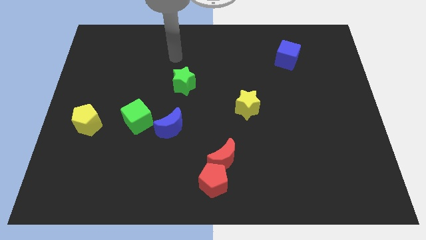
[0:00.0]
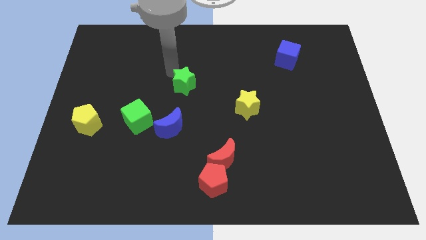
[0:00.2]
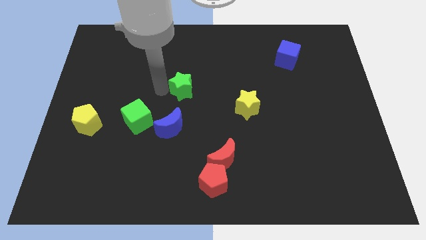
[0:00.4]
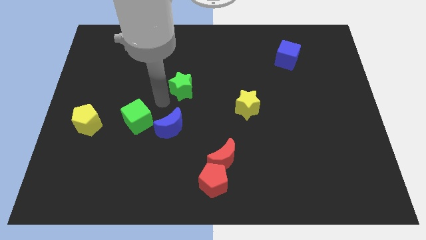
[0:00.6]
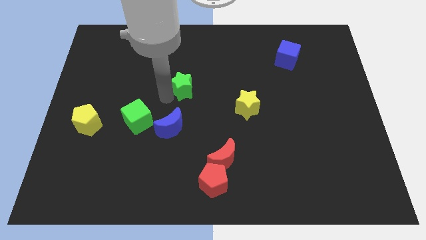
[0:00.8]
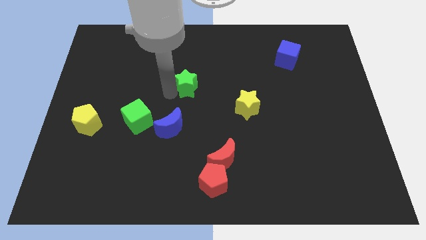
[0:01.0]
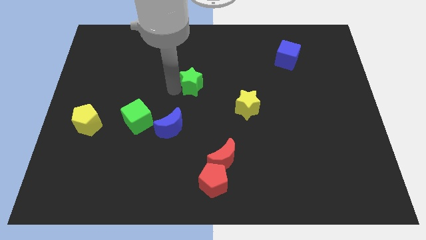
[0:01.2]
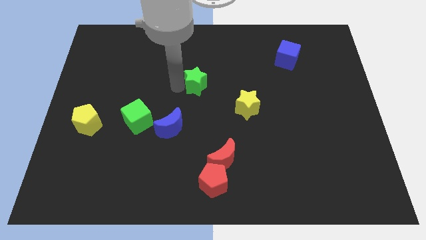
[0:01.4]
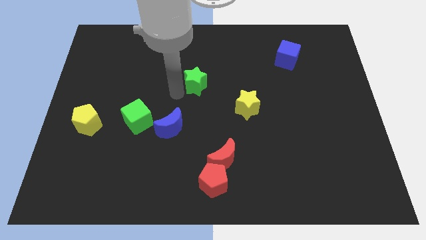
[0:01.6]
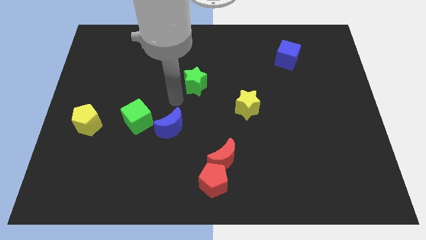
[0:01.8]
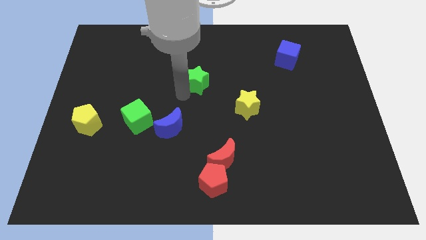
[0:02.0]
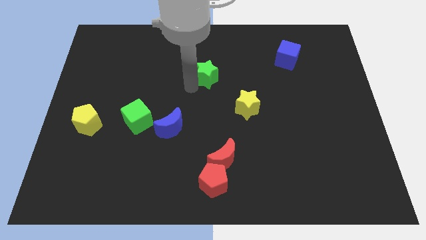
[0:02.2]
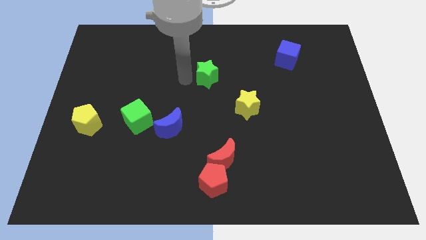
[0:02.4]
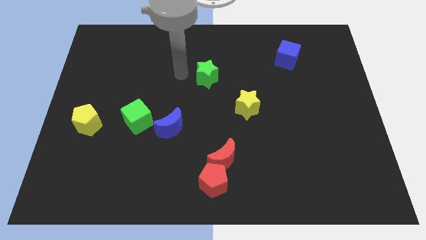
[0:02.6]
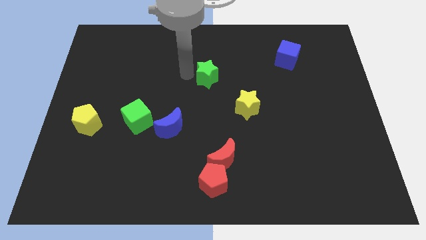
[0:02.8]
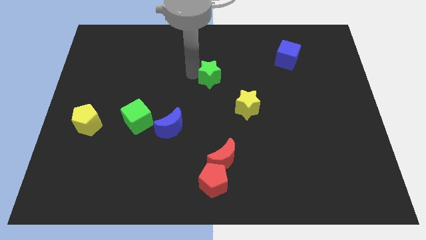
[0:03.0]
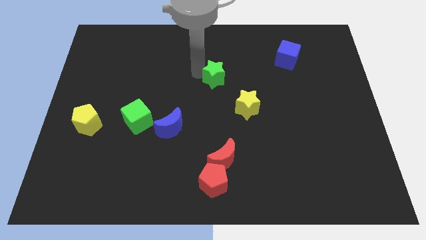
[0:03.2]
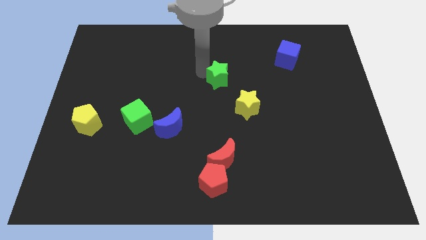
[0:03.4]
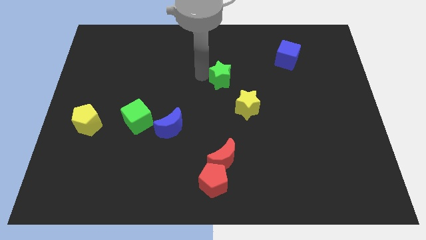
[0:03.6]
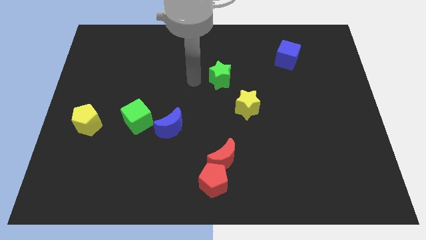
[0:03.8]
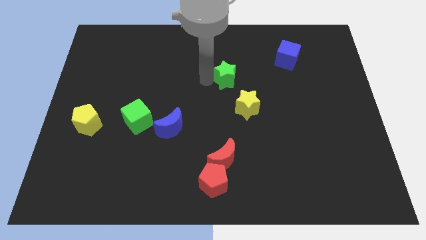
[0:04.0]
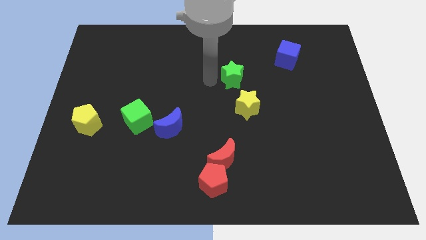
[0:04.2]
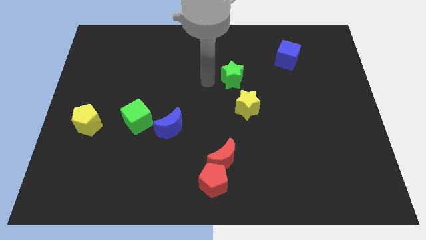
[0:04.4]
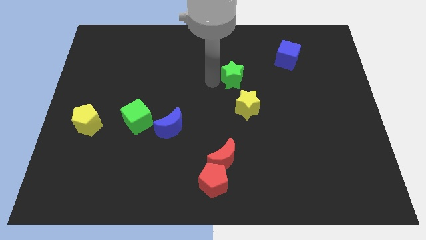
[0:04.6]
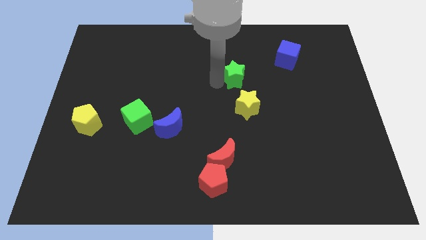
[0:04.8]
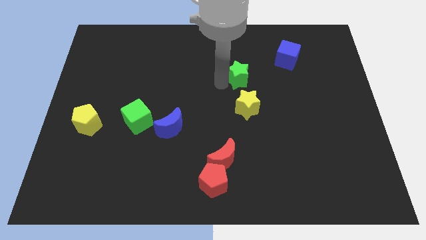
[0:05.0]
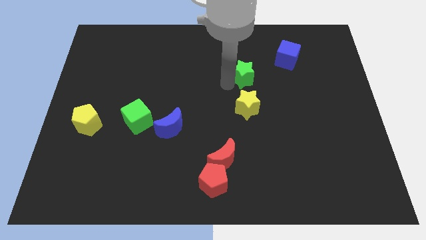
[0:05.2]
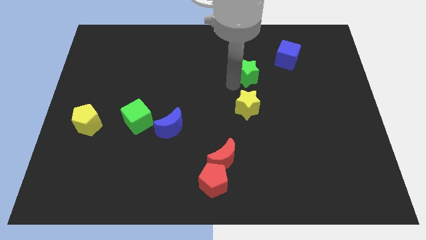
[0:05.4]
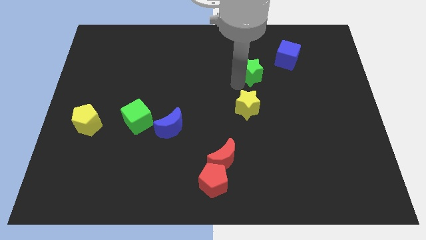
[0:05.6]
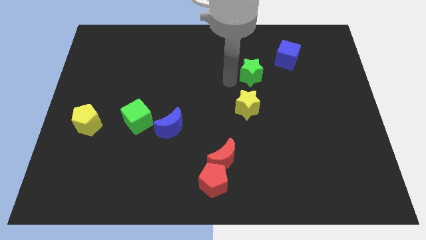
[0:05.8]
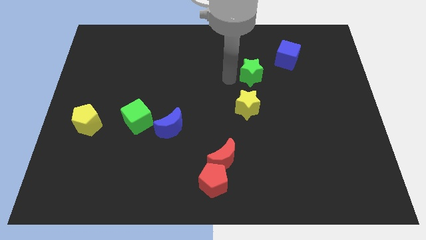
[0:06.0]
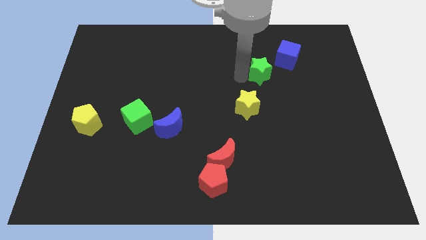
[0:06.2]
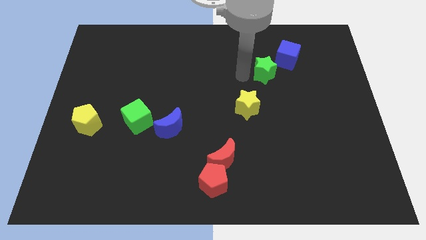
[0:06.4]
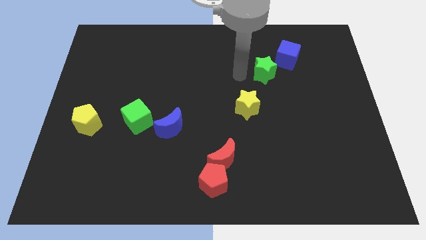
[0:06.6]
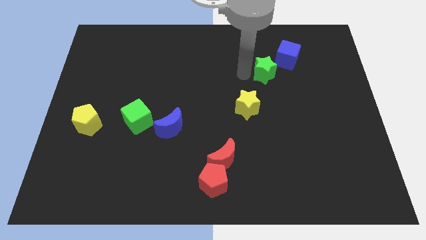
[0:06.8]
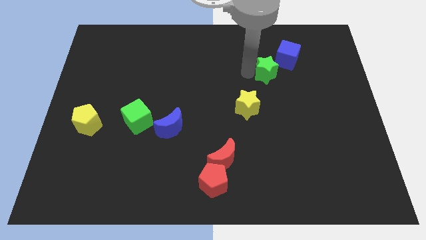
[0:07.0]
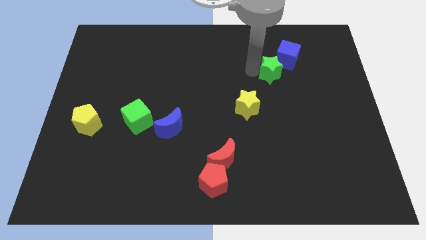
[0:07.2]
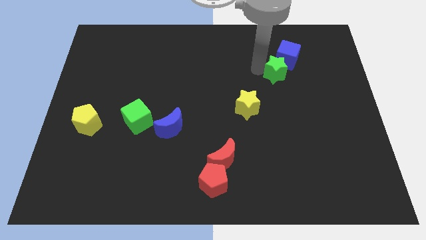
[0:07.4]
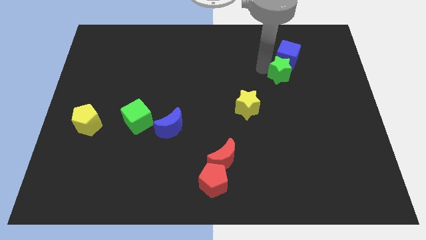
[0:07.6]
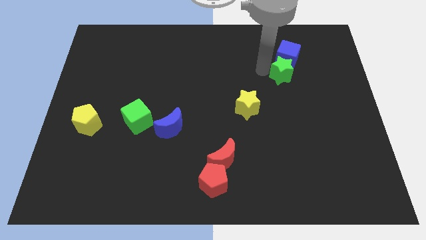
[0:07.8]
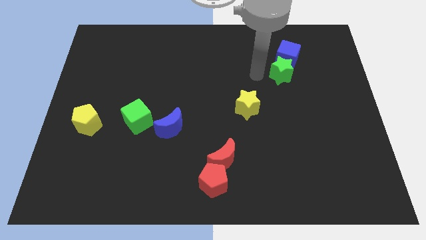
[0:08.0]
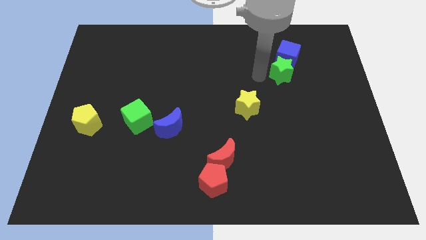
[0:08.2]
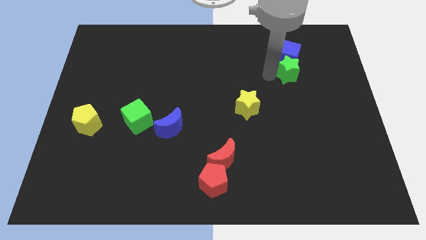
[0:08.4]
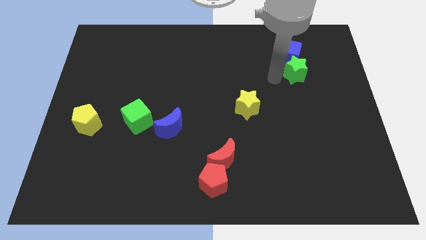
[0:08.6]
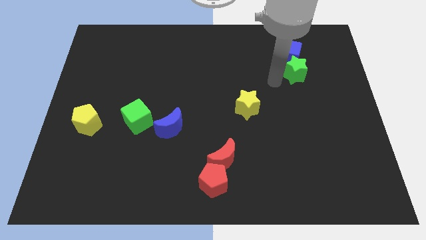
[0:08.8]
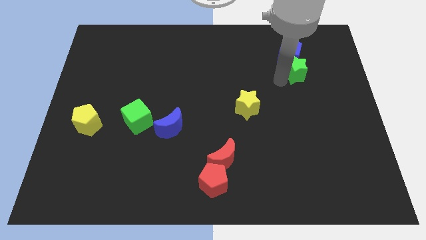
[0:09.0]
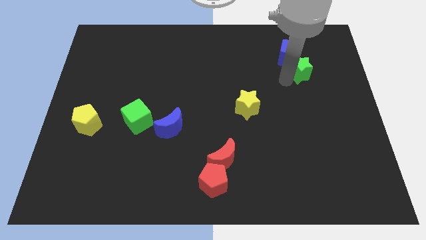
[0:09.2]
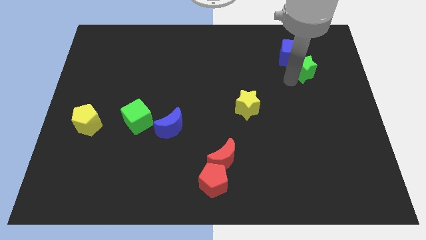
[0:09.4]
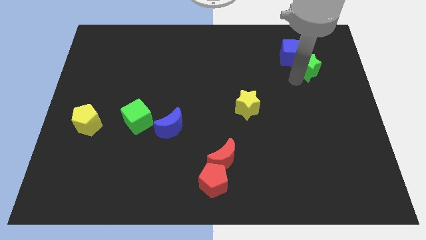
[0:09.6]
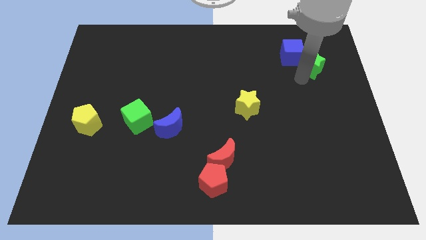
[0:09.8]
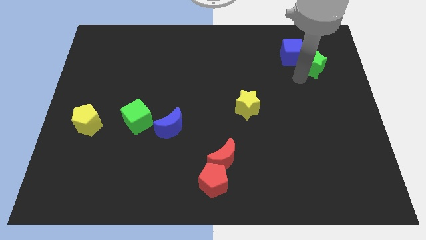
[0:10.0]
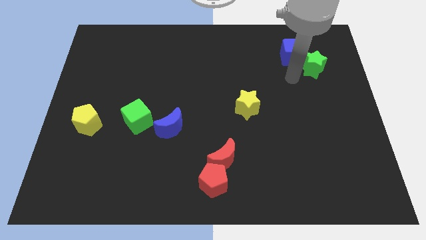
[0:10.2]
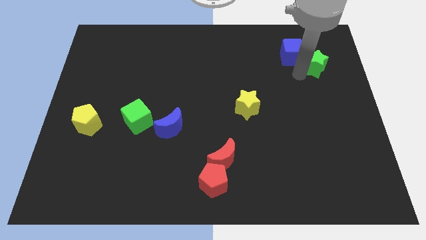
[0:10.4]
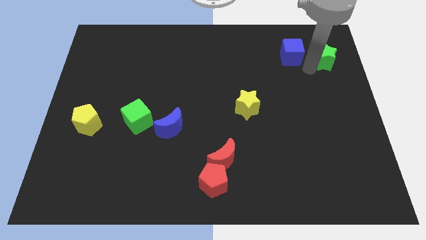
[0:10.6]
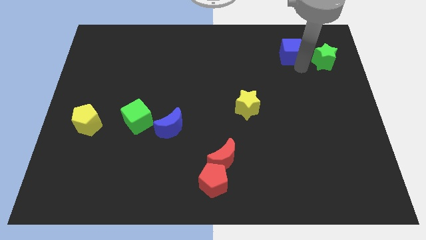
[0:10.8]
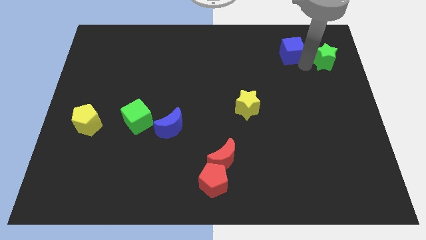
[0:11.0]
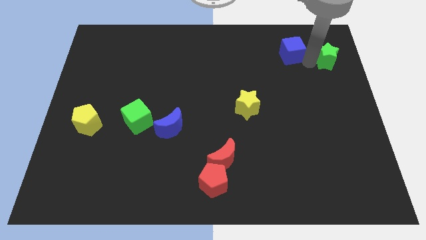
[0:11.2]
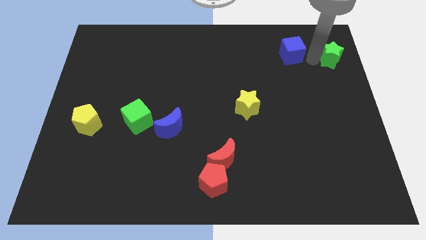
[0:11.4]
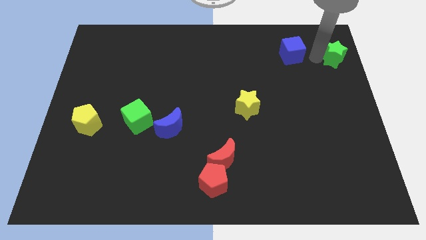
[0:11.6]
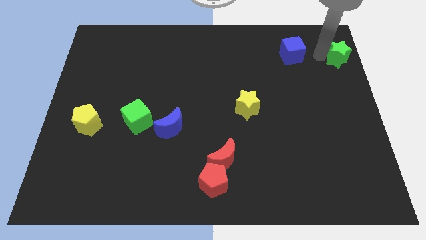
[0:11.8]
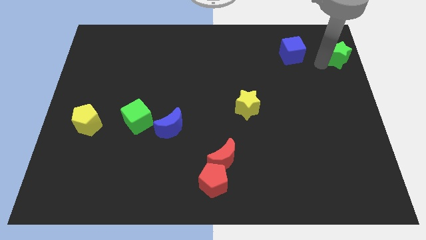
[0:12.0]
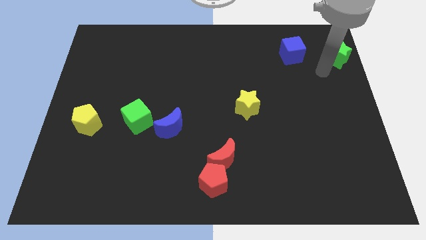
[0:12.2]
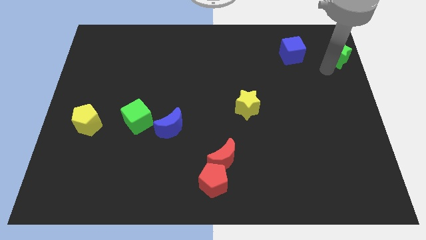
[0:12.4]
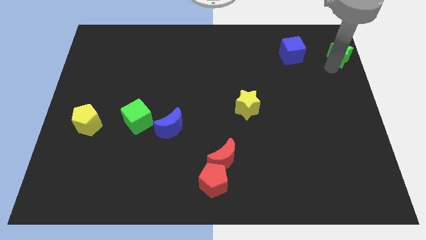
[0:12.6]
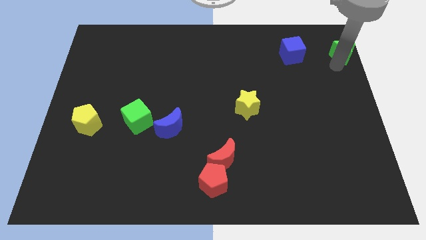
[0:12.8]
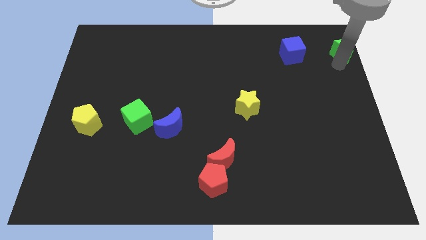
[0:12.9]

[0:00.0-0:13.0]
put the green star to the upper right corner
